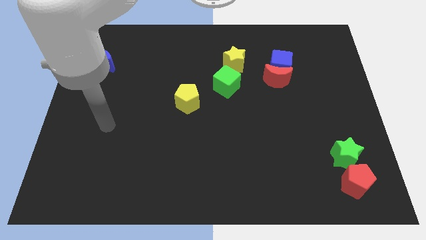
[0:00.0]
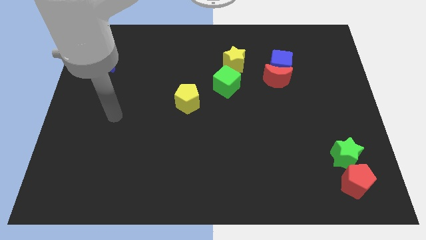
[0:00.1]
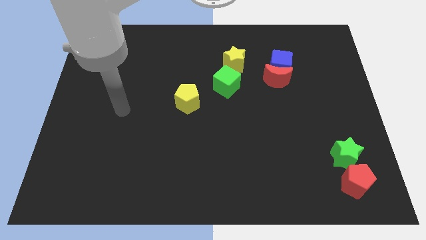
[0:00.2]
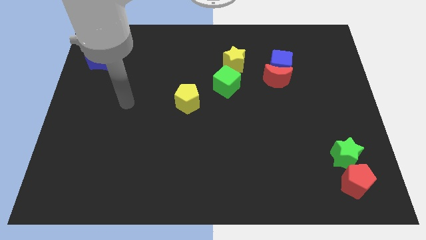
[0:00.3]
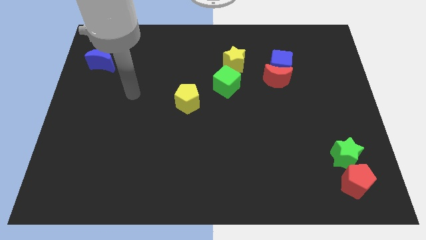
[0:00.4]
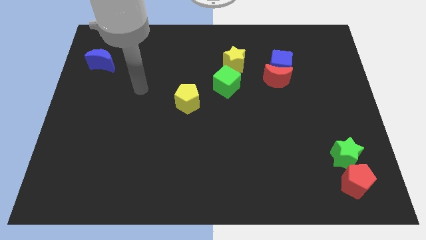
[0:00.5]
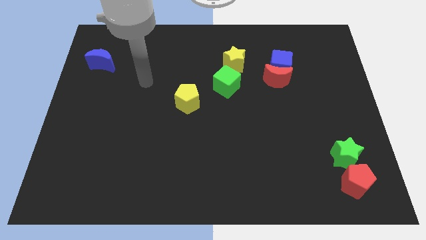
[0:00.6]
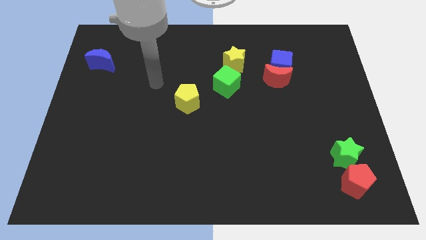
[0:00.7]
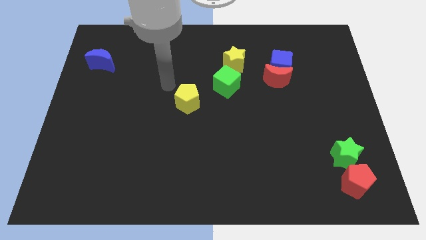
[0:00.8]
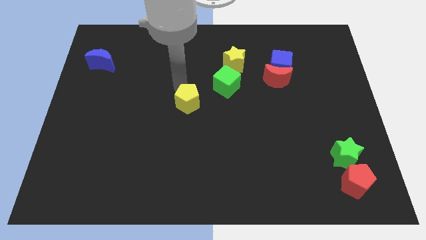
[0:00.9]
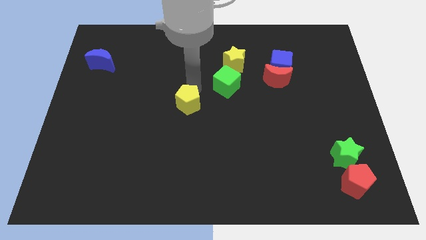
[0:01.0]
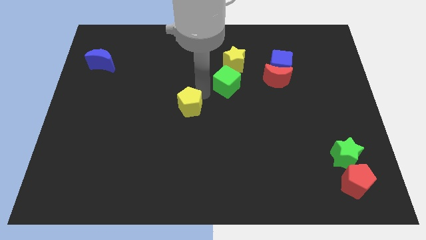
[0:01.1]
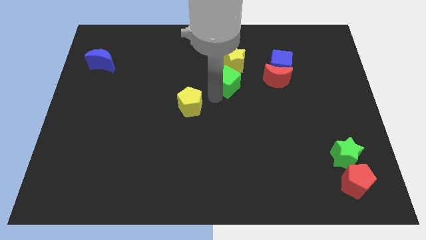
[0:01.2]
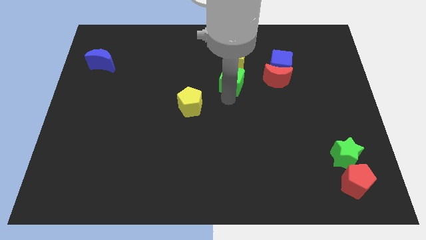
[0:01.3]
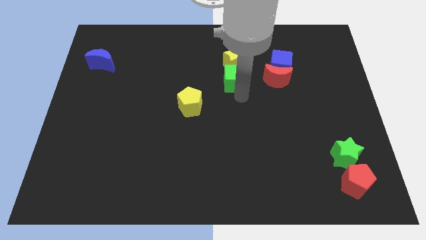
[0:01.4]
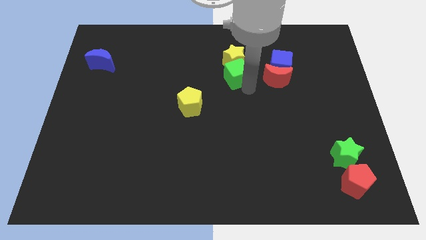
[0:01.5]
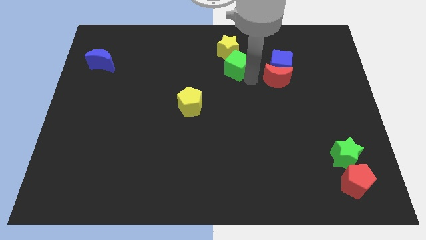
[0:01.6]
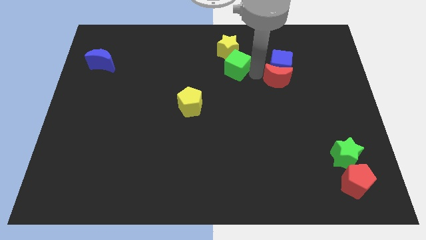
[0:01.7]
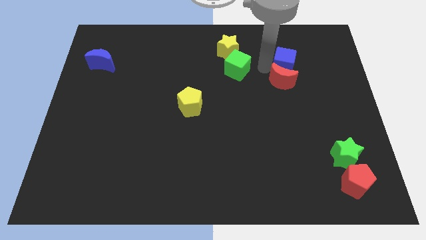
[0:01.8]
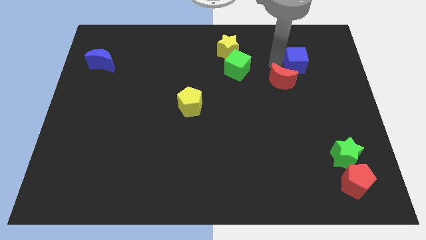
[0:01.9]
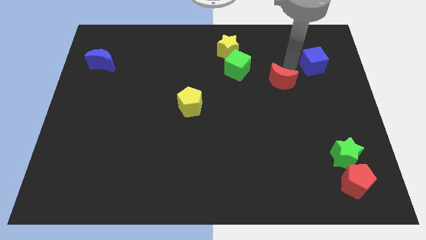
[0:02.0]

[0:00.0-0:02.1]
move the red moon away from the blue cube

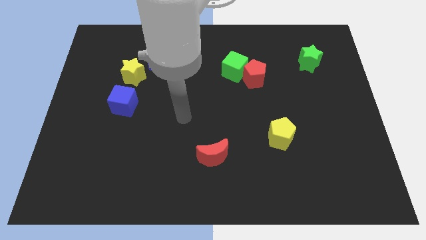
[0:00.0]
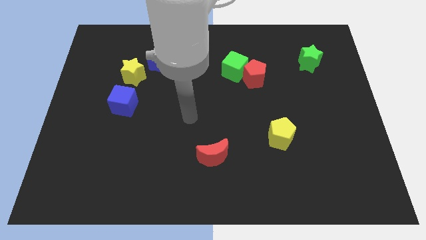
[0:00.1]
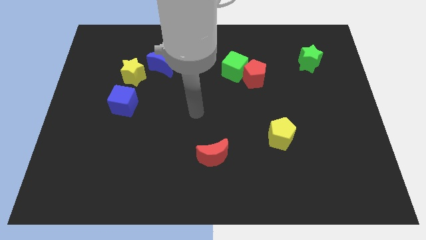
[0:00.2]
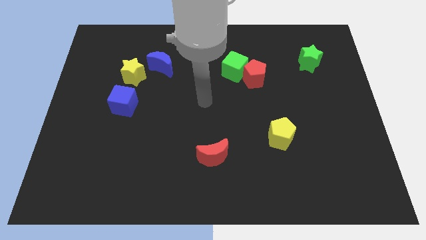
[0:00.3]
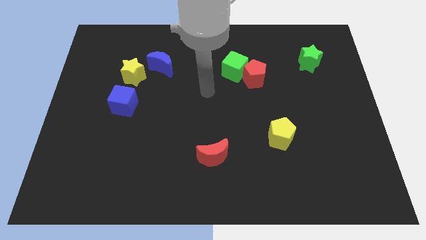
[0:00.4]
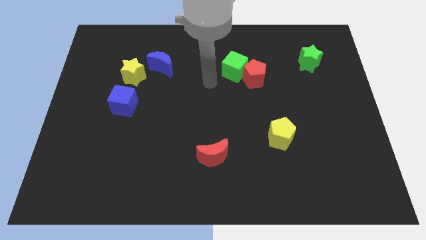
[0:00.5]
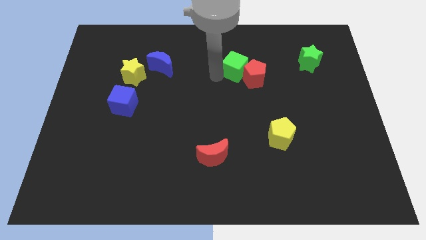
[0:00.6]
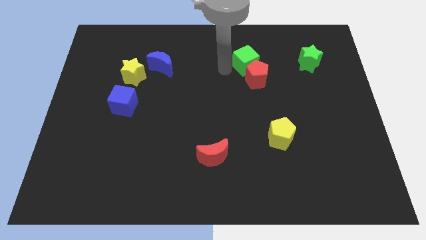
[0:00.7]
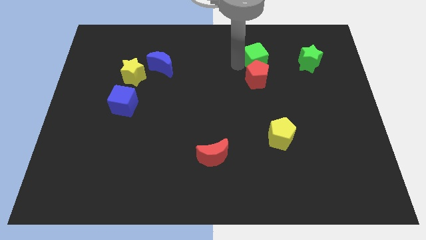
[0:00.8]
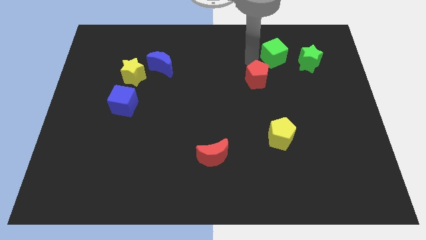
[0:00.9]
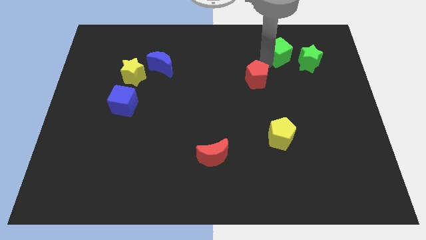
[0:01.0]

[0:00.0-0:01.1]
move the red pentagon away from the green cube

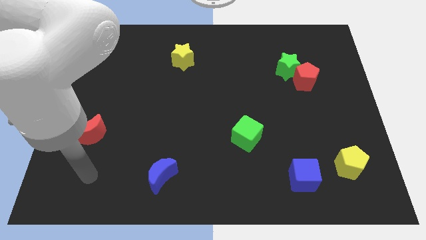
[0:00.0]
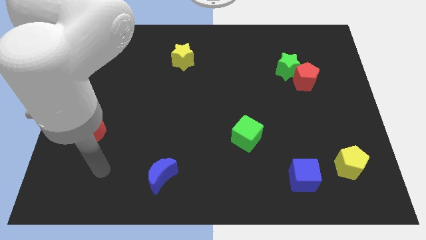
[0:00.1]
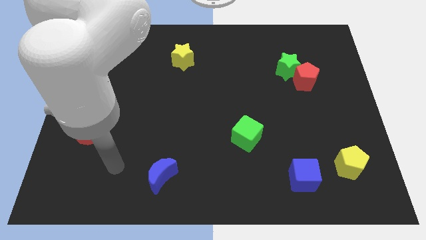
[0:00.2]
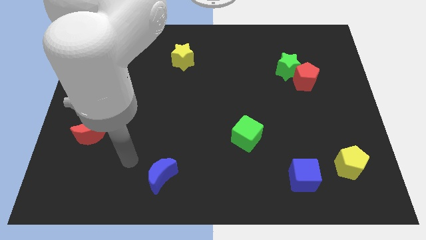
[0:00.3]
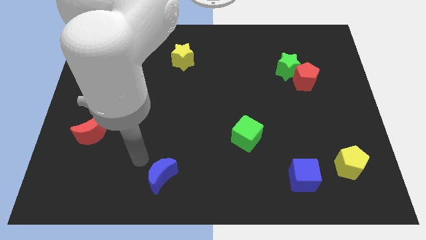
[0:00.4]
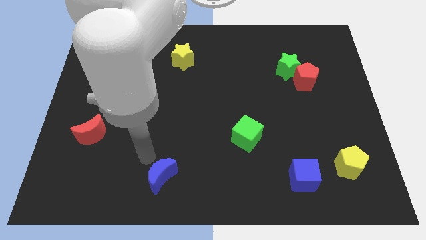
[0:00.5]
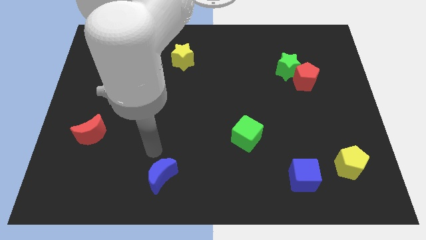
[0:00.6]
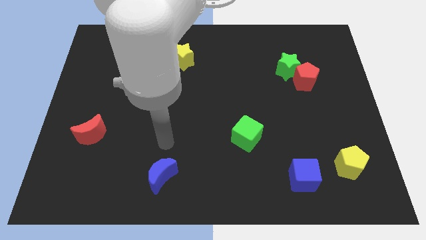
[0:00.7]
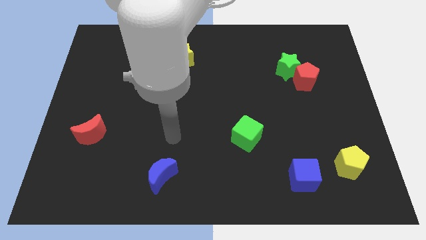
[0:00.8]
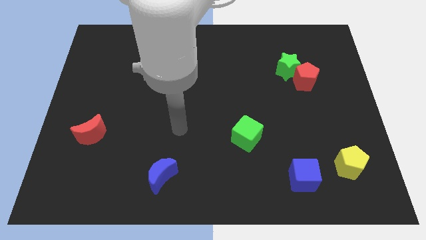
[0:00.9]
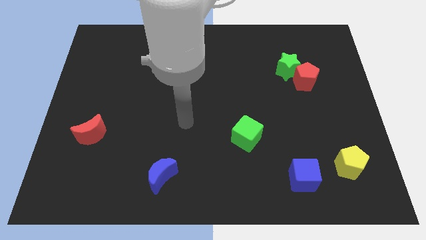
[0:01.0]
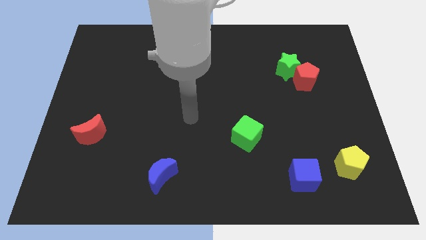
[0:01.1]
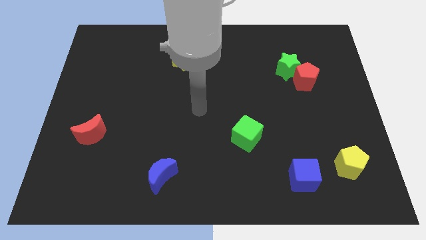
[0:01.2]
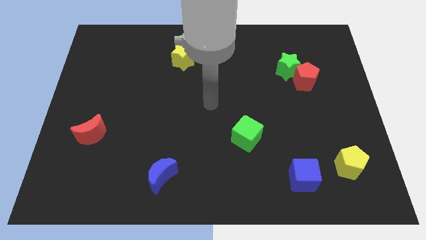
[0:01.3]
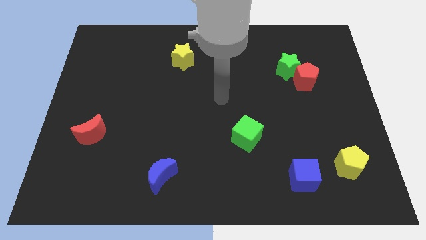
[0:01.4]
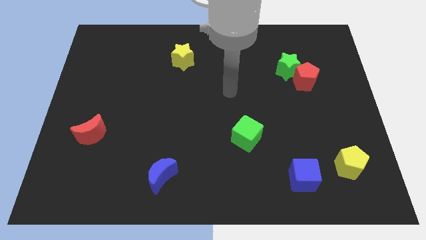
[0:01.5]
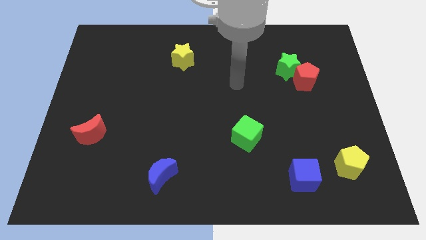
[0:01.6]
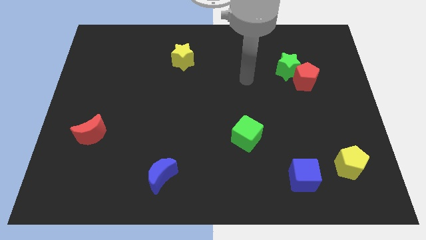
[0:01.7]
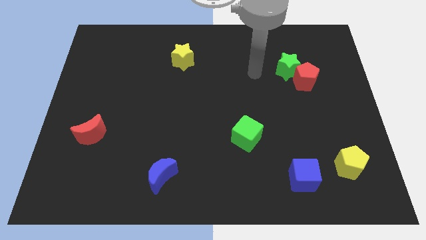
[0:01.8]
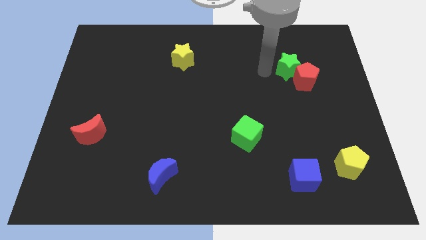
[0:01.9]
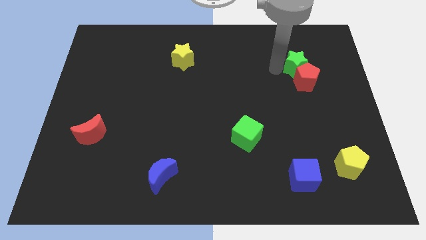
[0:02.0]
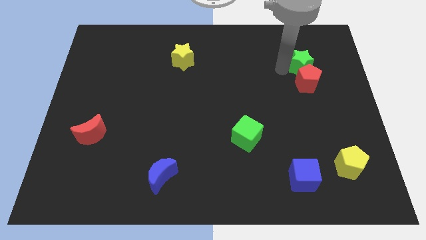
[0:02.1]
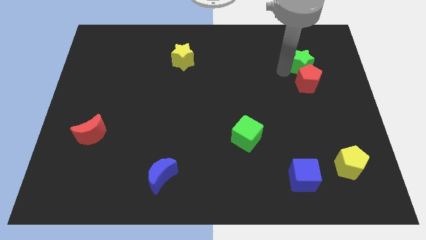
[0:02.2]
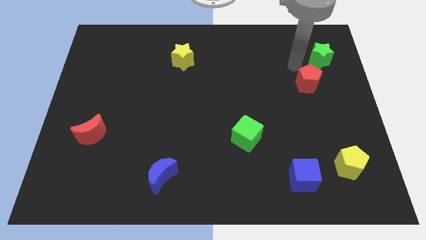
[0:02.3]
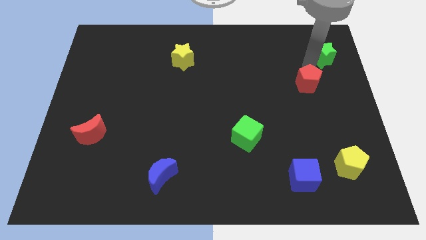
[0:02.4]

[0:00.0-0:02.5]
pull the red pentagon apart from the green star

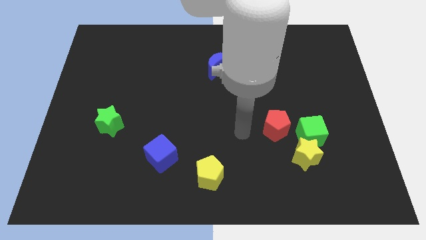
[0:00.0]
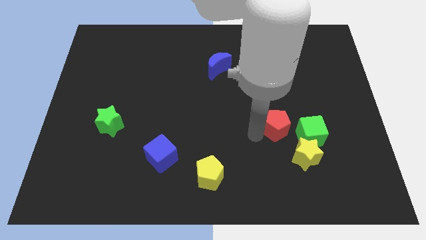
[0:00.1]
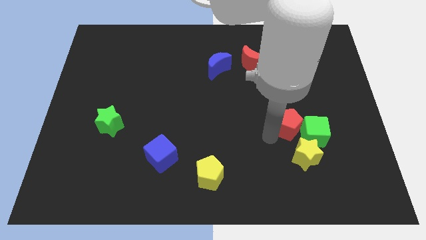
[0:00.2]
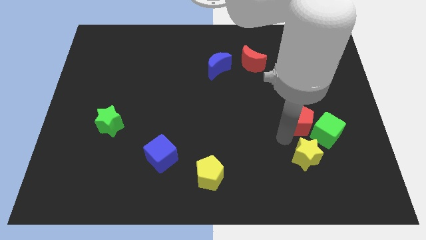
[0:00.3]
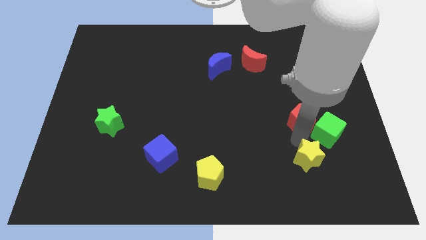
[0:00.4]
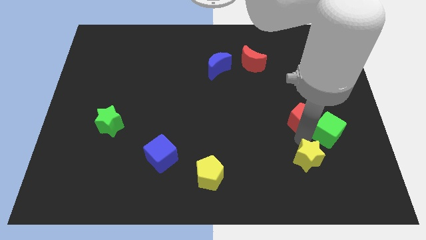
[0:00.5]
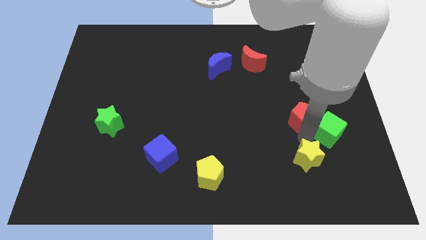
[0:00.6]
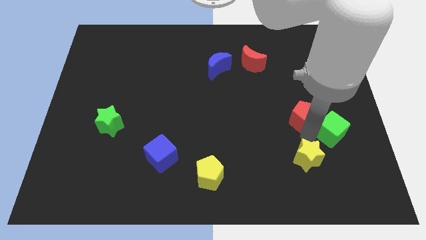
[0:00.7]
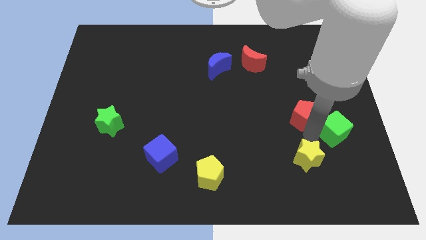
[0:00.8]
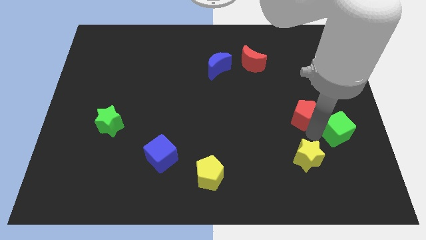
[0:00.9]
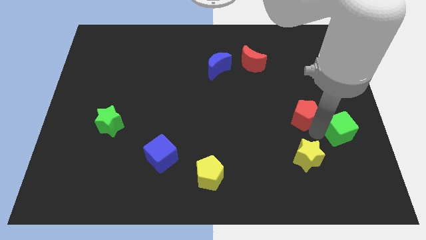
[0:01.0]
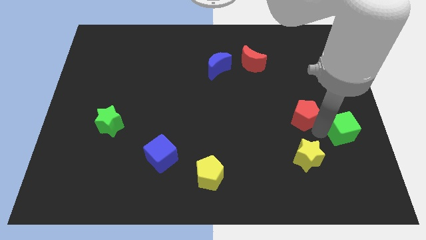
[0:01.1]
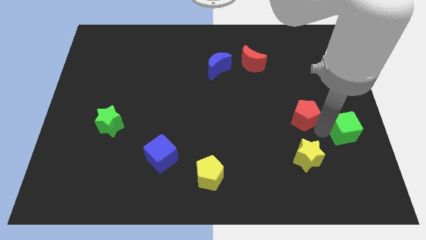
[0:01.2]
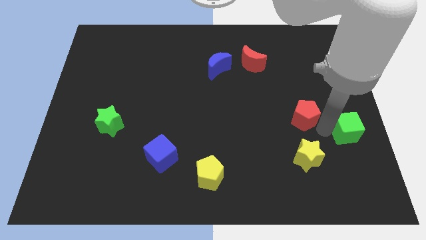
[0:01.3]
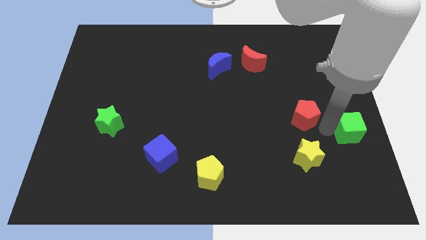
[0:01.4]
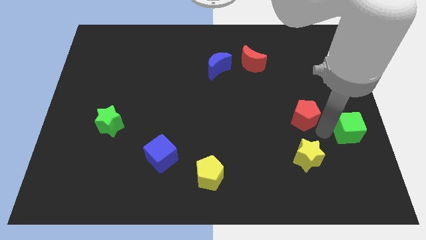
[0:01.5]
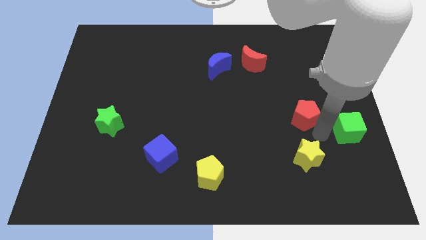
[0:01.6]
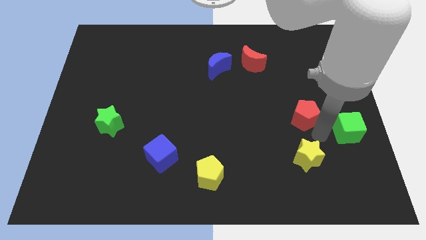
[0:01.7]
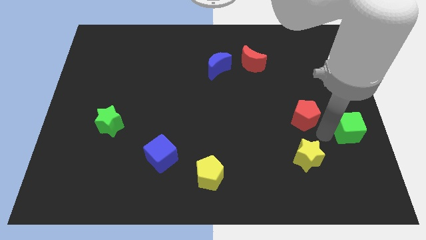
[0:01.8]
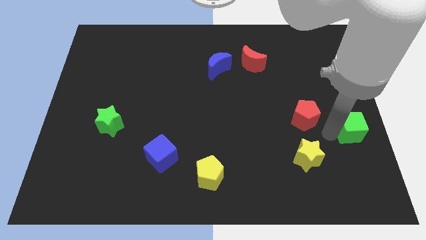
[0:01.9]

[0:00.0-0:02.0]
separate the green cube from the yellow star and red pentagon

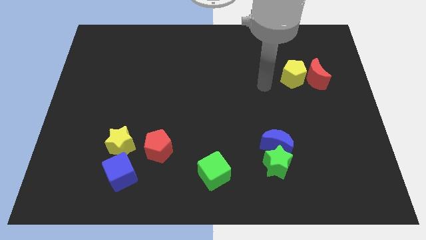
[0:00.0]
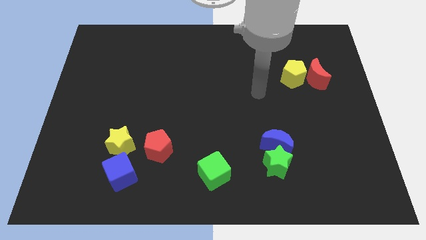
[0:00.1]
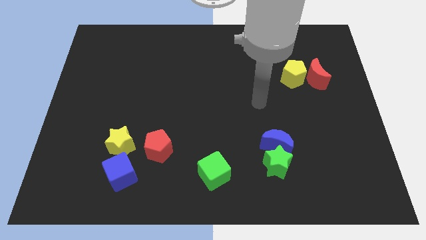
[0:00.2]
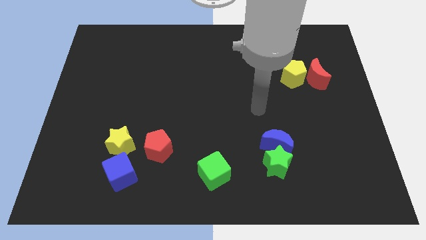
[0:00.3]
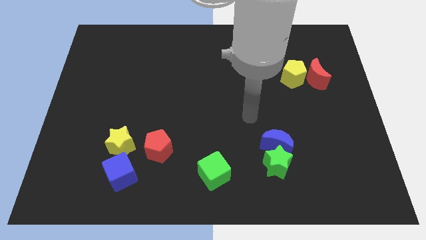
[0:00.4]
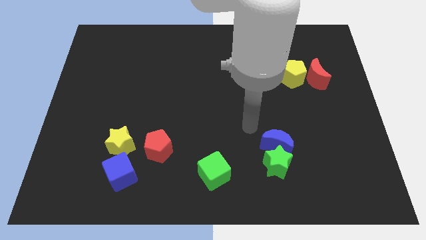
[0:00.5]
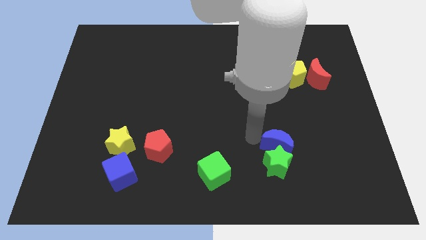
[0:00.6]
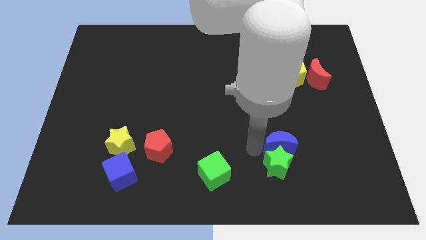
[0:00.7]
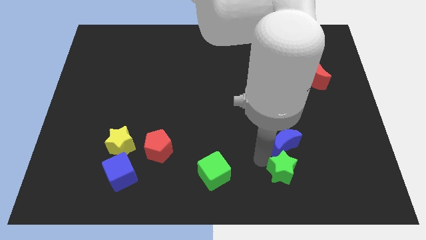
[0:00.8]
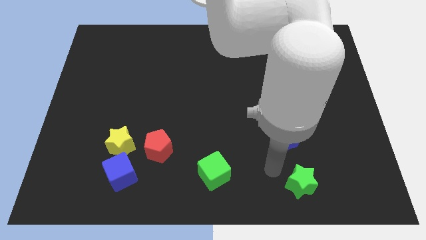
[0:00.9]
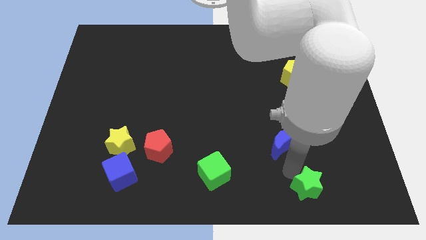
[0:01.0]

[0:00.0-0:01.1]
separate the blue moon from the green star

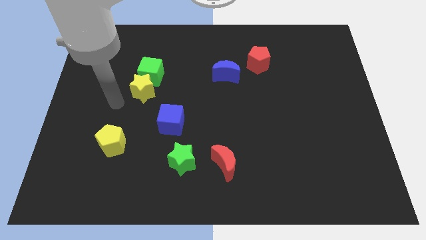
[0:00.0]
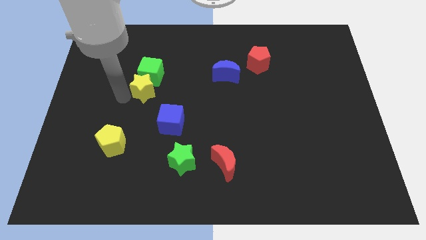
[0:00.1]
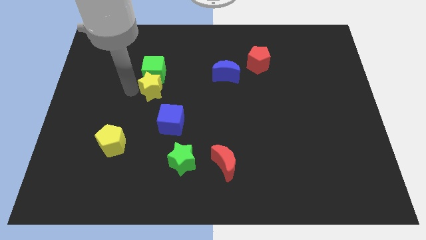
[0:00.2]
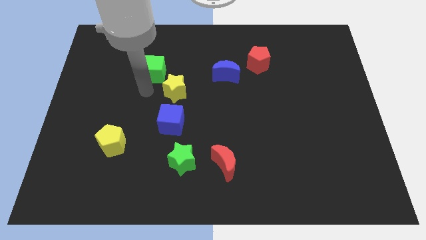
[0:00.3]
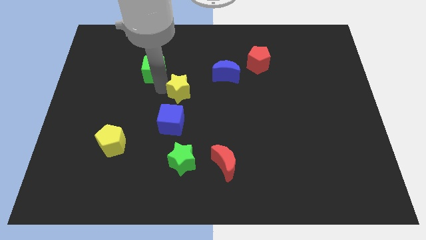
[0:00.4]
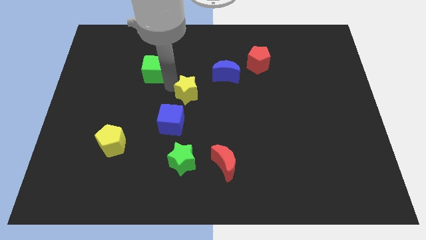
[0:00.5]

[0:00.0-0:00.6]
move the green cube away from the yellow star
